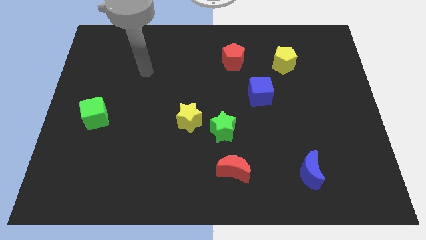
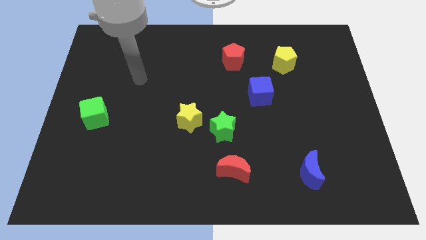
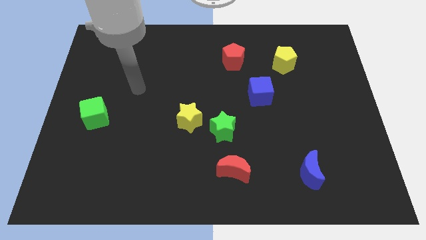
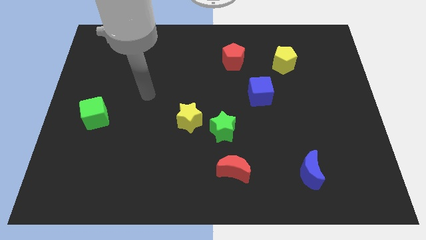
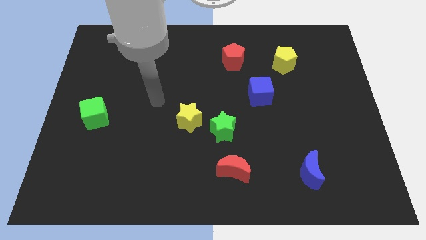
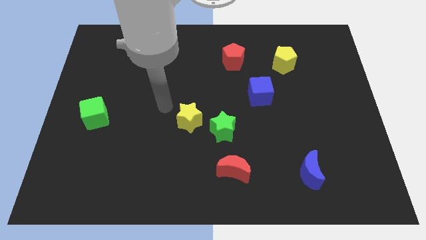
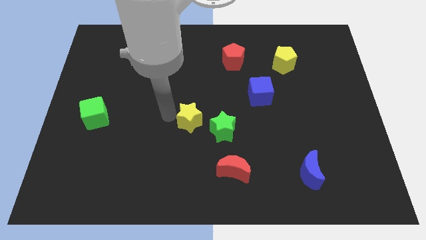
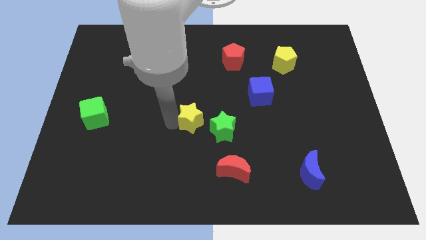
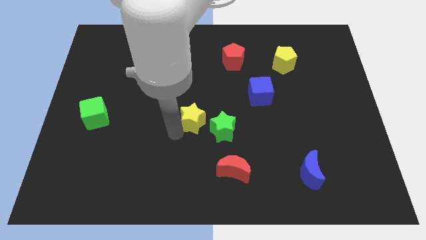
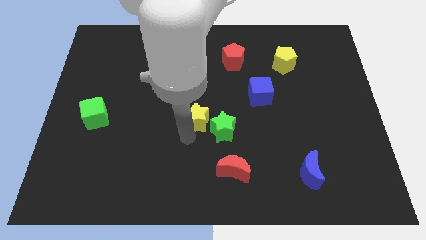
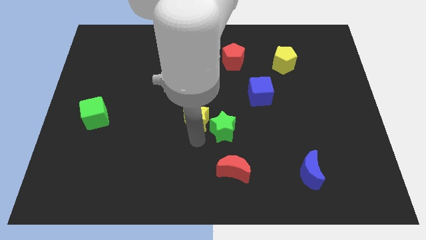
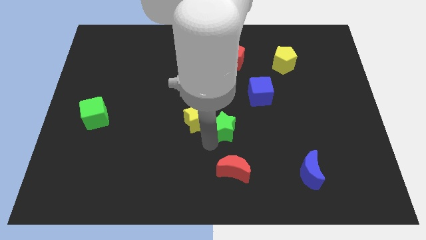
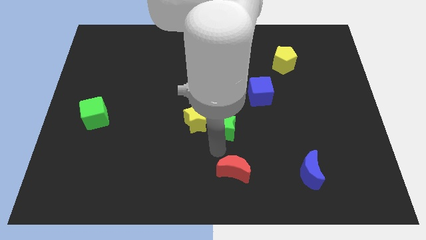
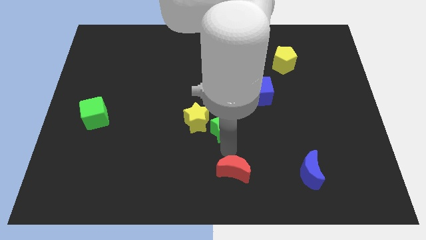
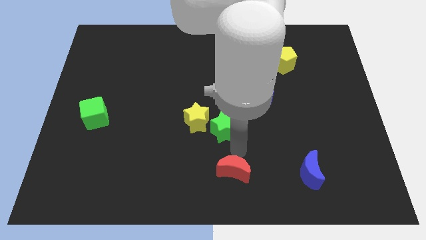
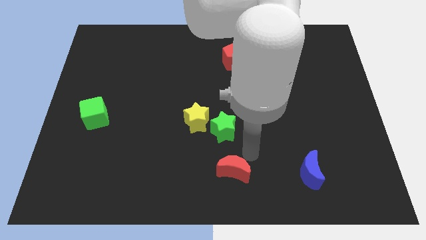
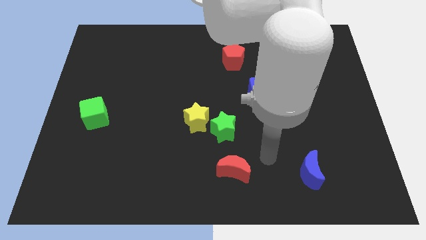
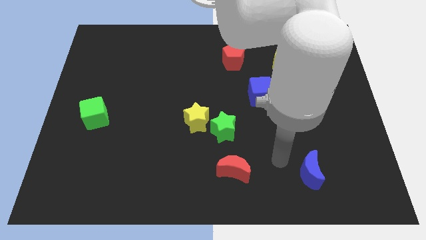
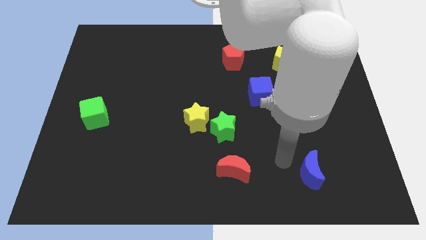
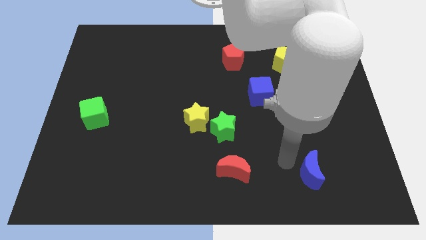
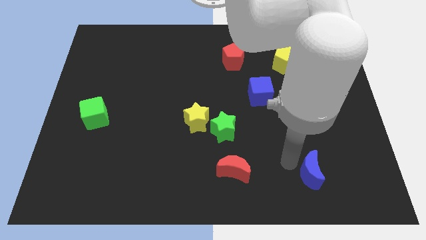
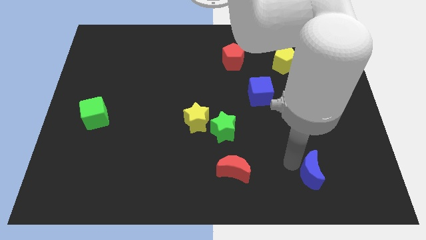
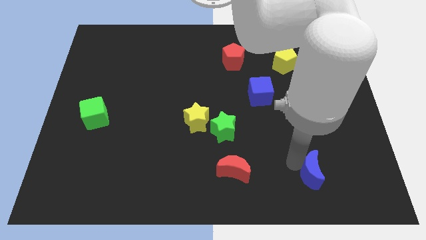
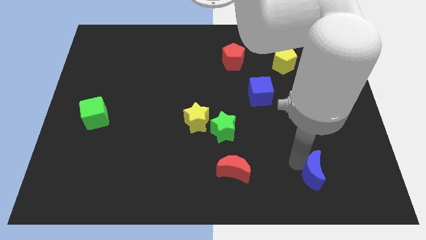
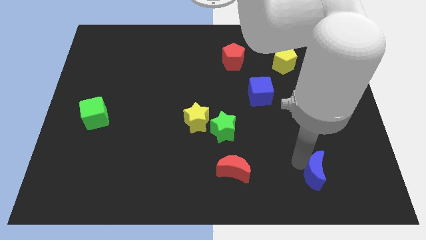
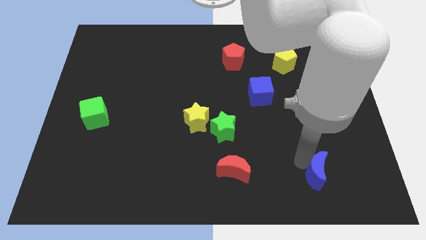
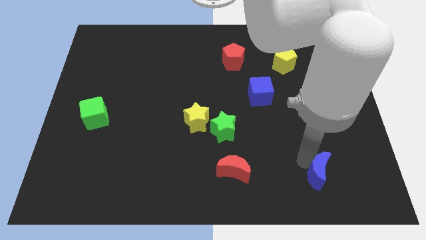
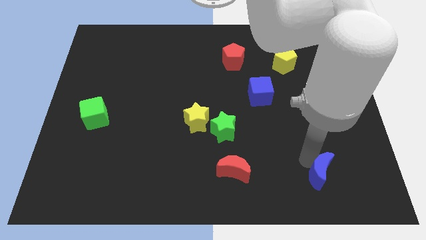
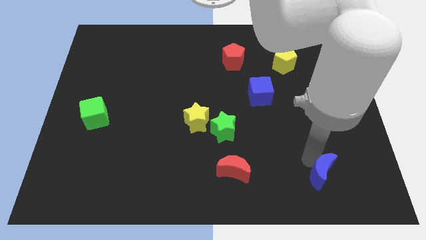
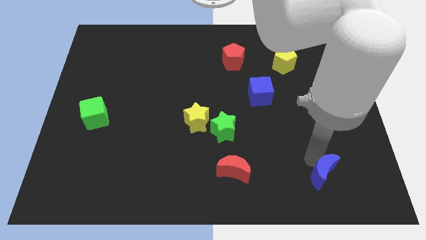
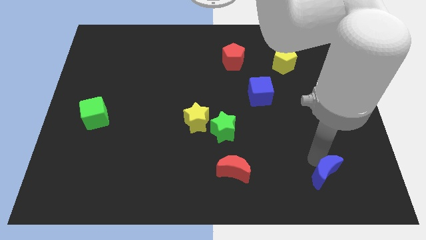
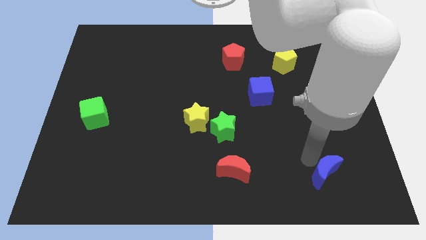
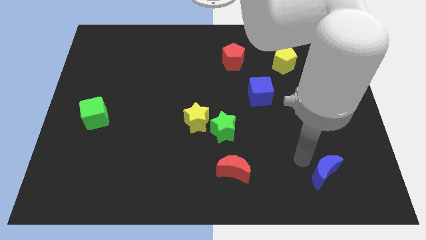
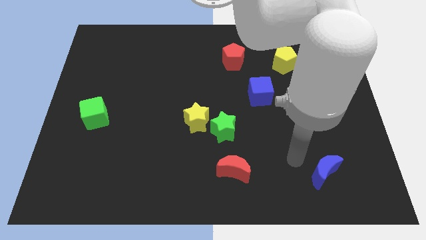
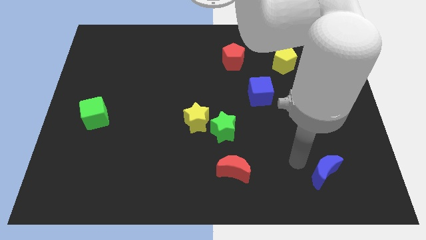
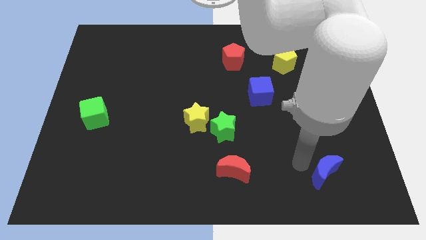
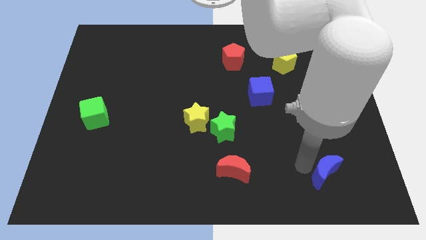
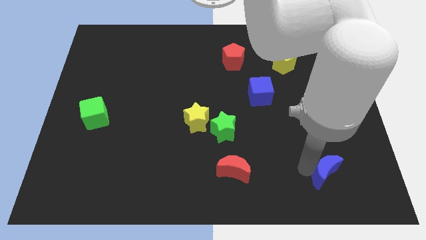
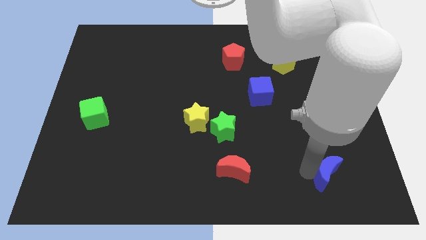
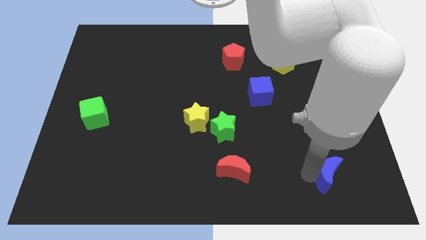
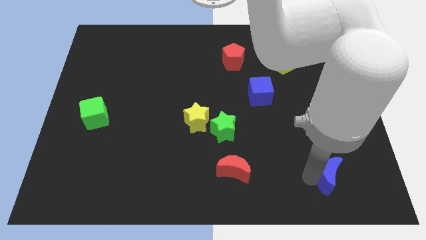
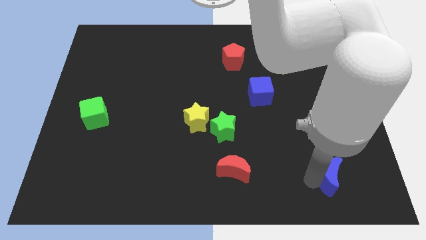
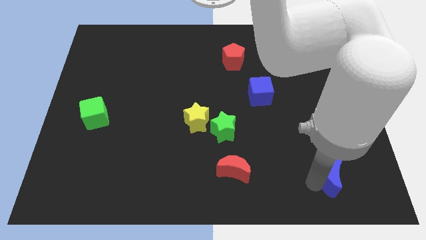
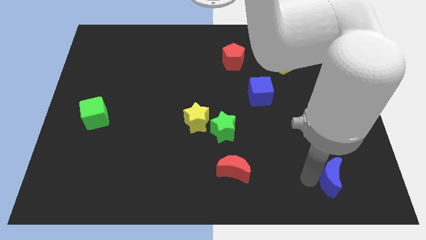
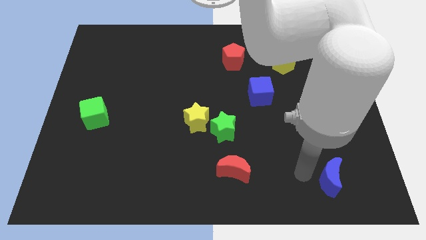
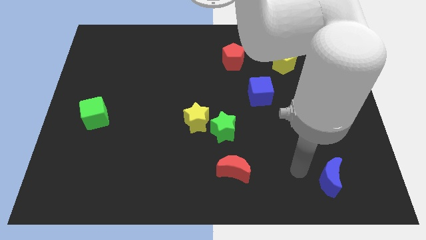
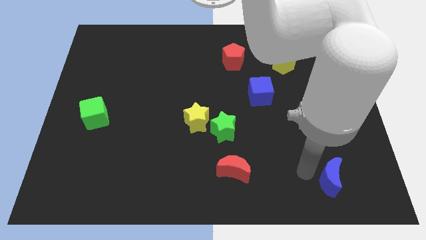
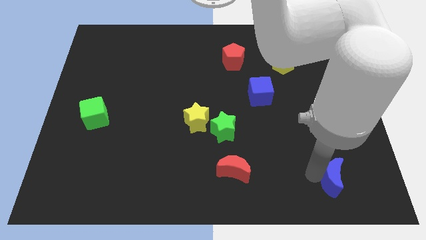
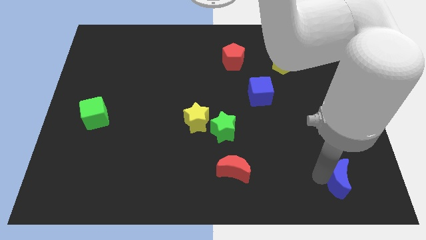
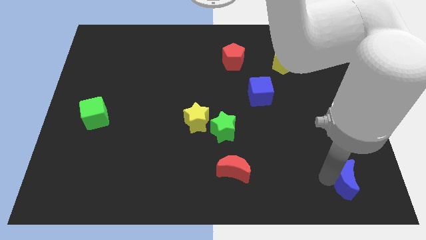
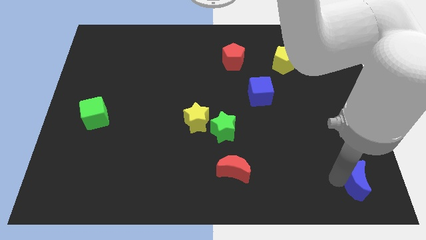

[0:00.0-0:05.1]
push the blue moon to the bottom right of the board

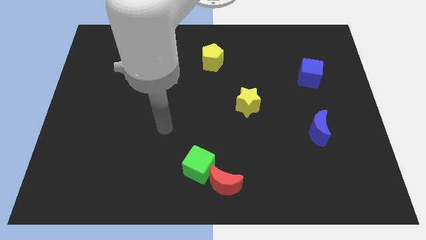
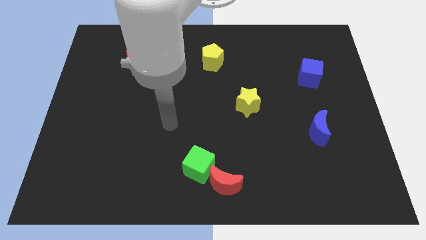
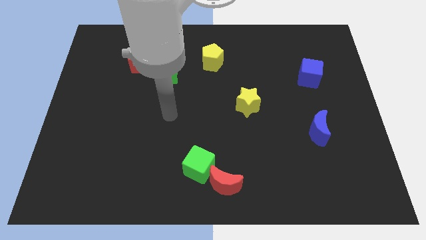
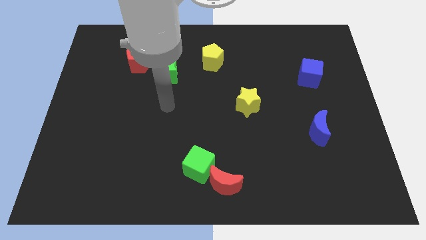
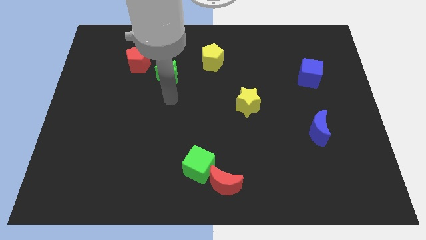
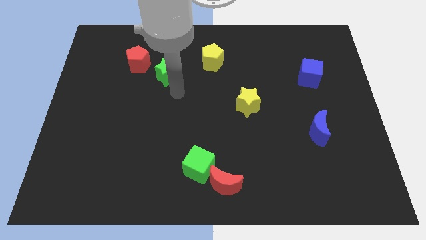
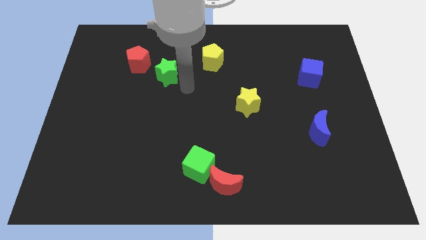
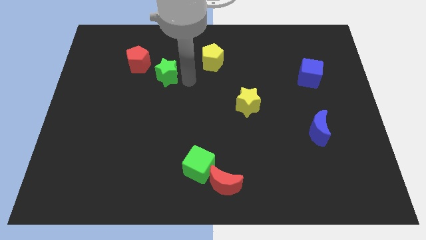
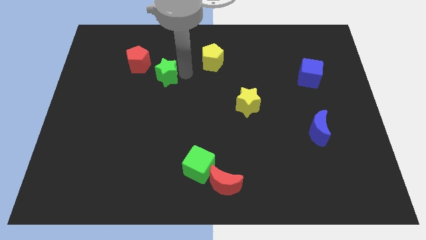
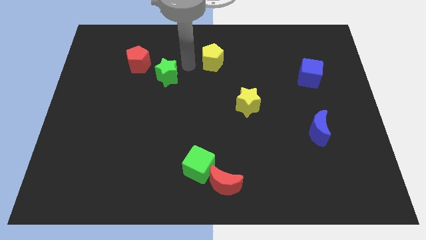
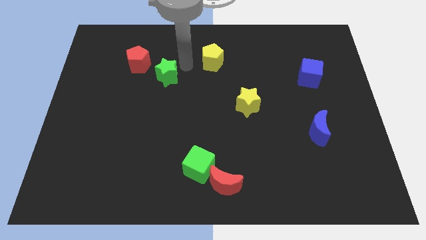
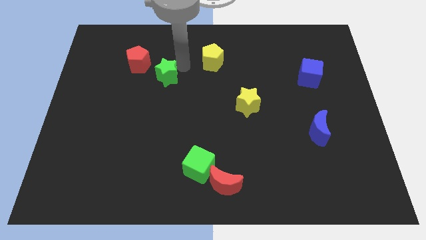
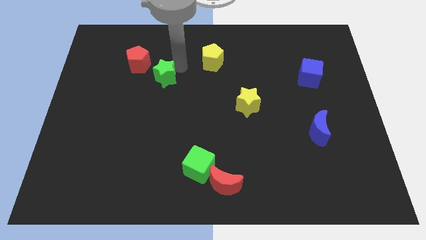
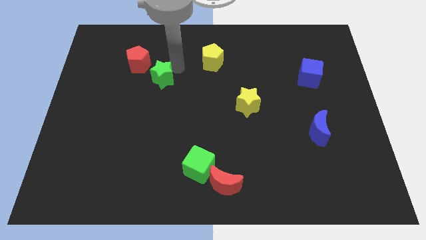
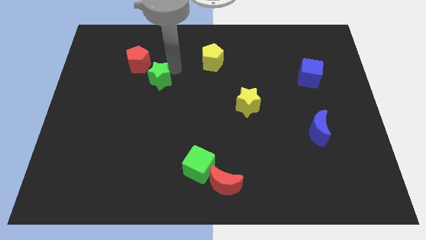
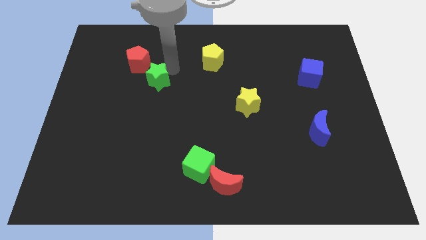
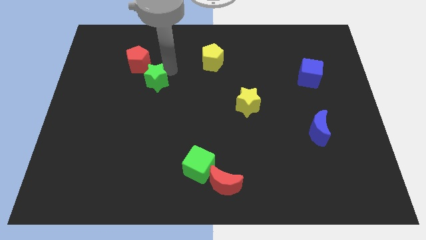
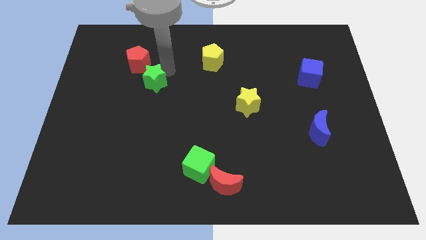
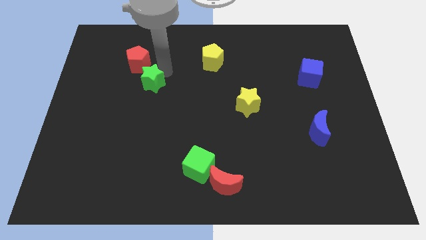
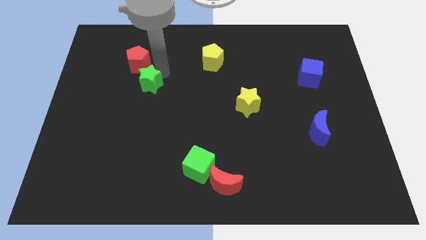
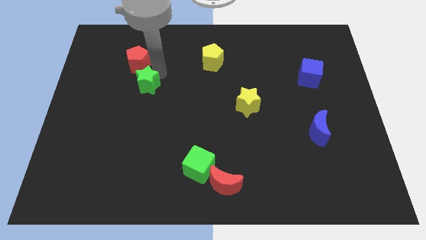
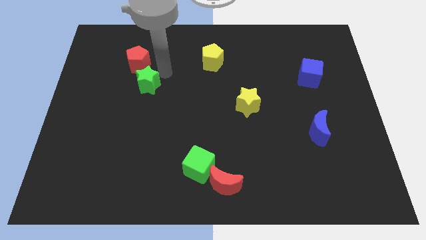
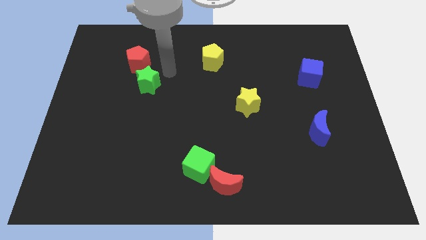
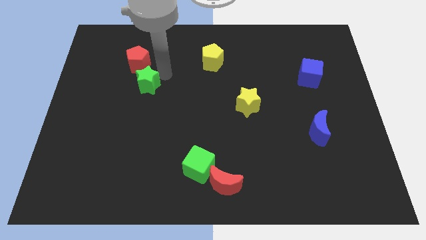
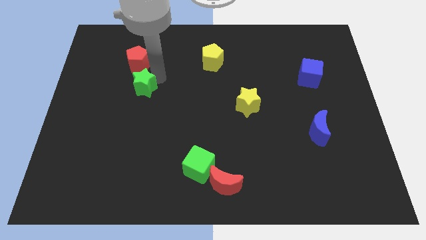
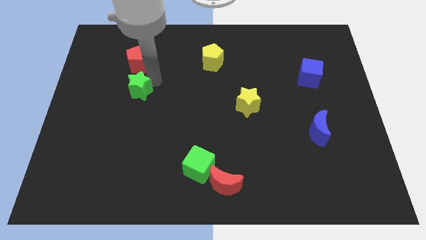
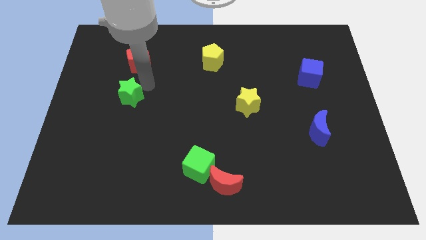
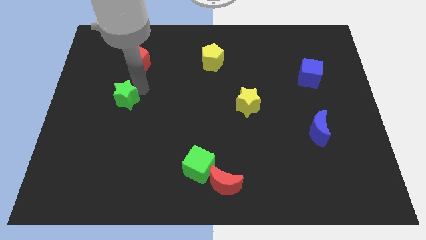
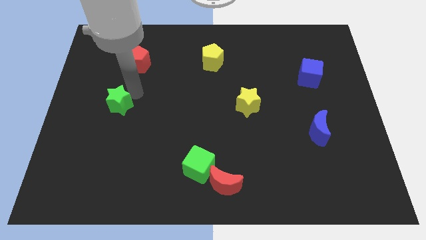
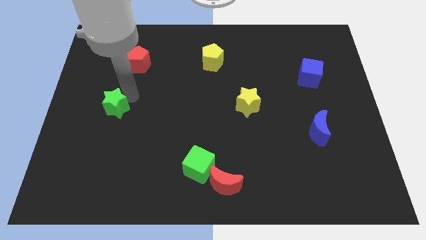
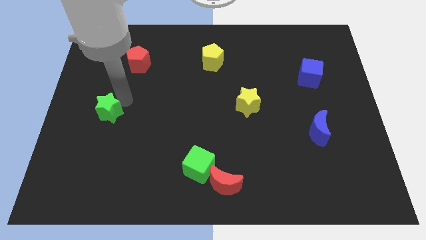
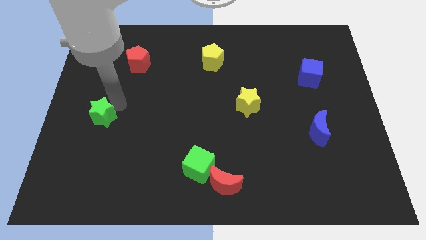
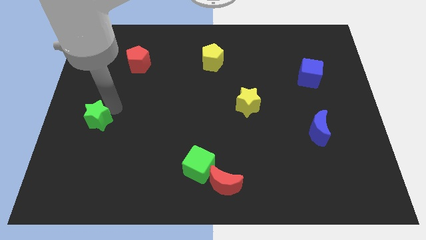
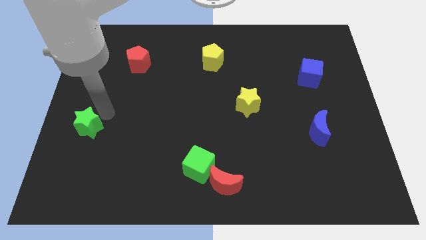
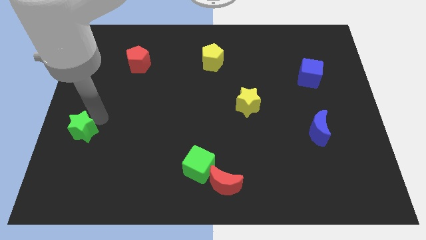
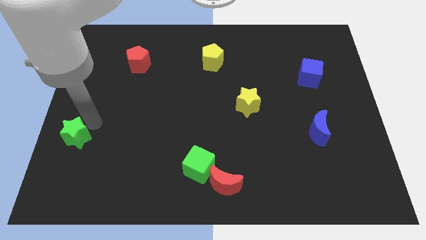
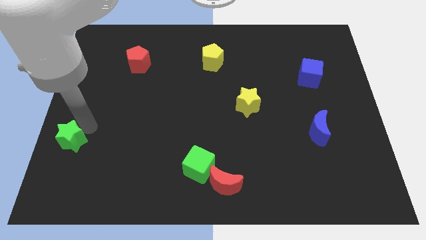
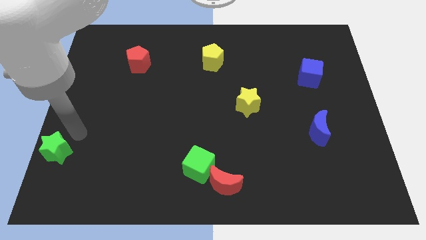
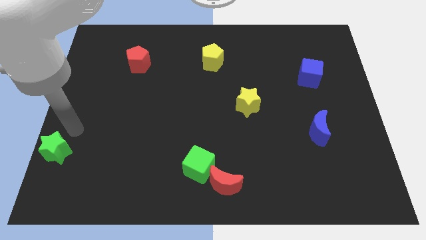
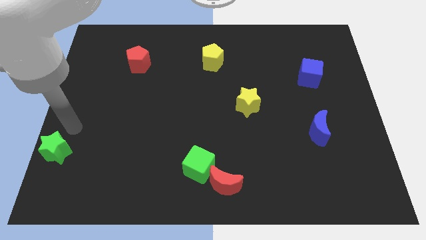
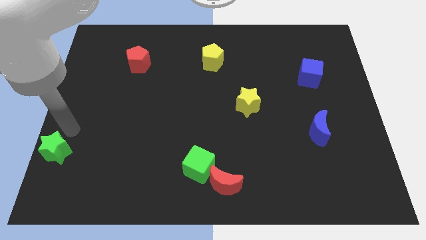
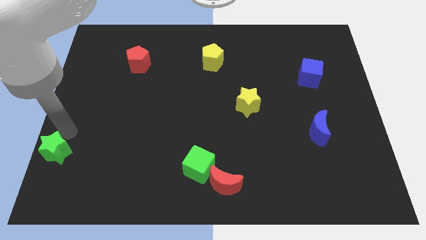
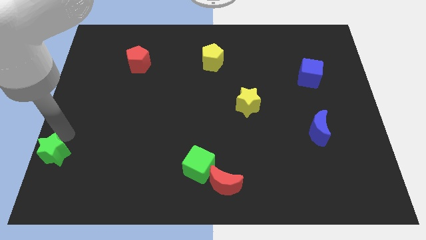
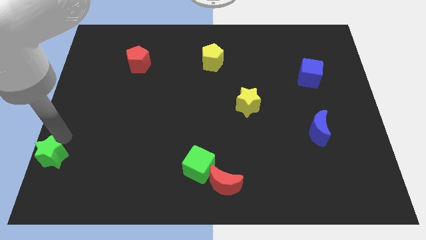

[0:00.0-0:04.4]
slide the green star to the lower left corner
